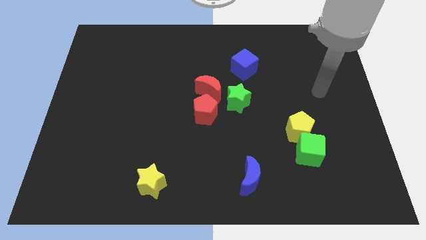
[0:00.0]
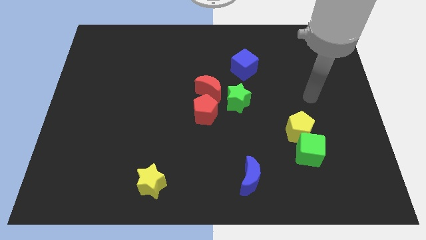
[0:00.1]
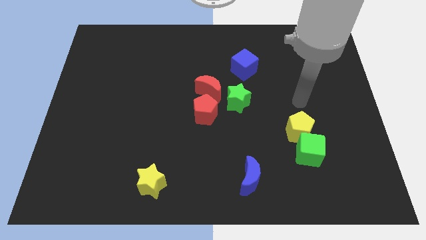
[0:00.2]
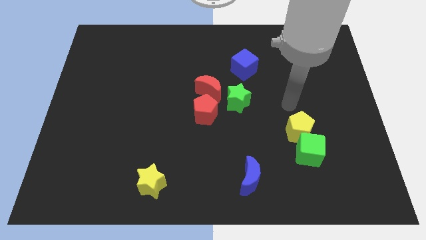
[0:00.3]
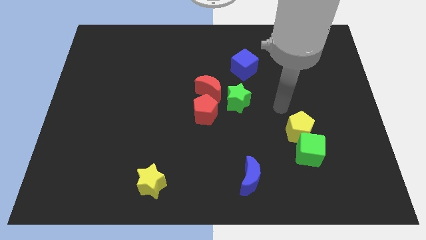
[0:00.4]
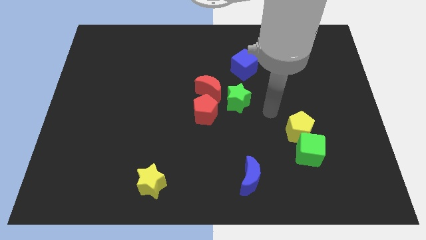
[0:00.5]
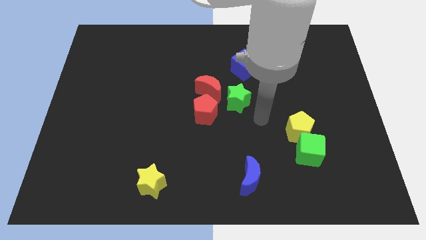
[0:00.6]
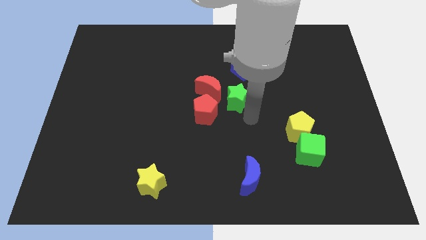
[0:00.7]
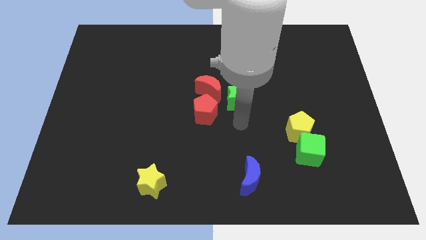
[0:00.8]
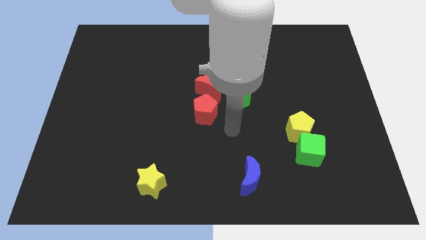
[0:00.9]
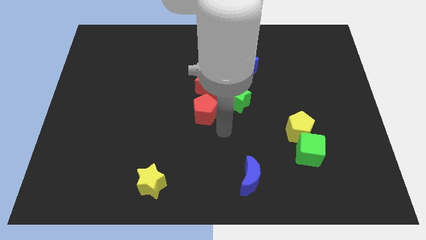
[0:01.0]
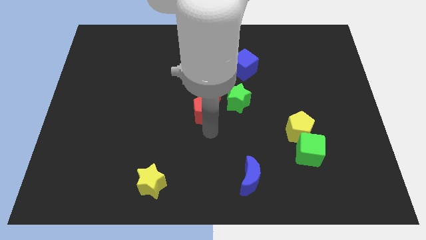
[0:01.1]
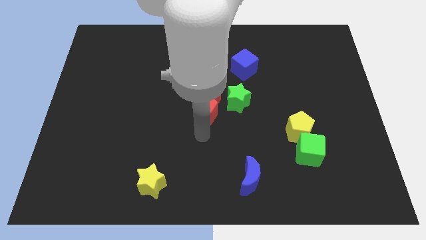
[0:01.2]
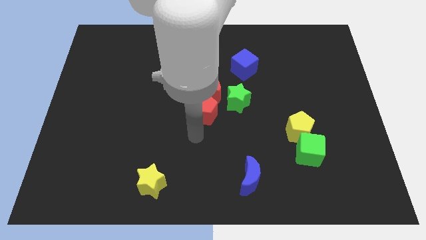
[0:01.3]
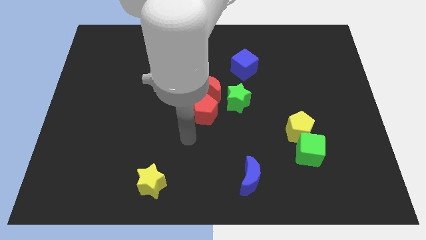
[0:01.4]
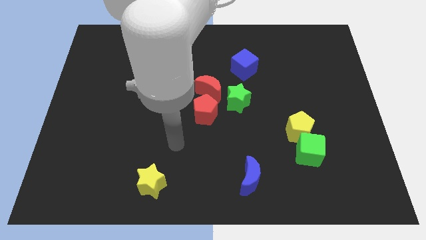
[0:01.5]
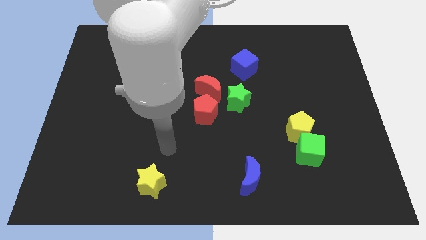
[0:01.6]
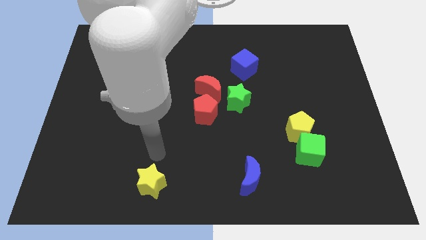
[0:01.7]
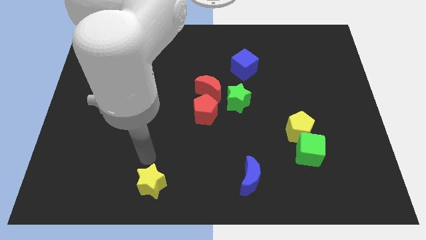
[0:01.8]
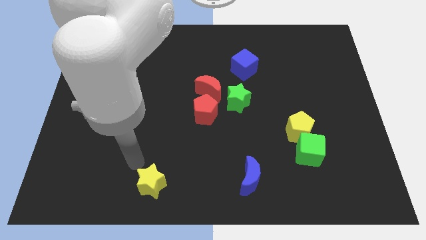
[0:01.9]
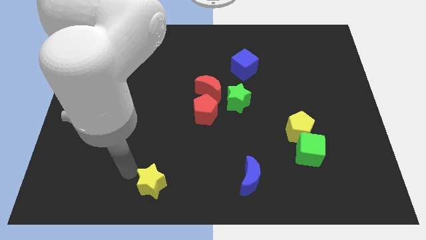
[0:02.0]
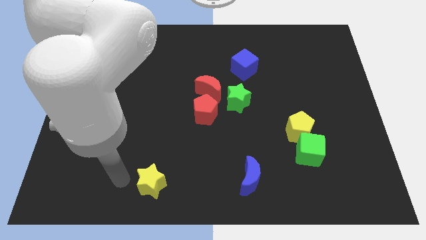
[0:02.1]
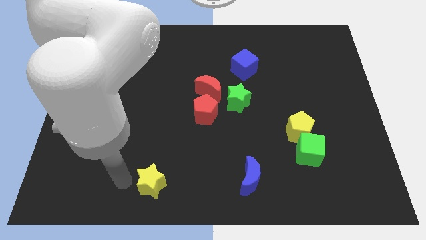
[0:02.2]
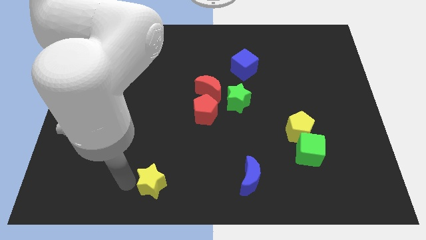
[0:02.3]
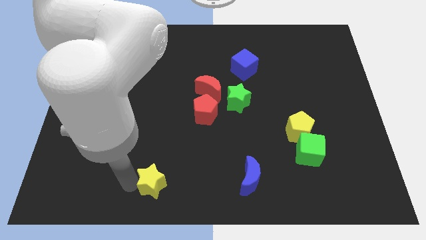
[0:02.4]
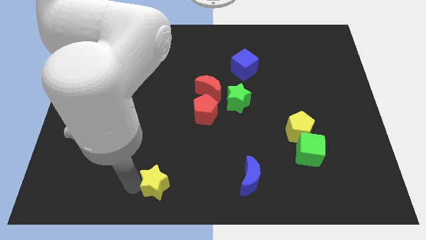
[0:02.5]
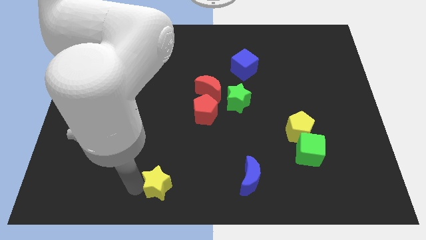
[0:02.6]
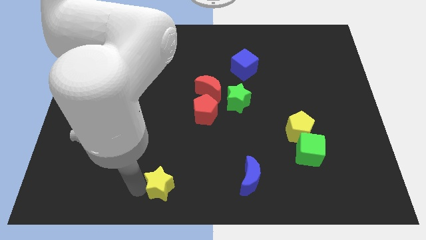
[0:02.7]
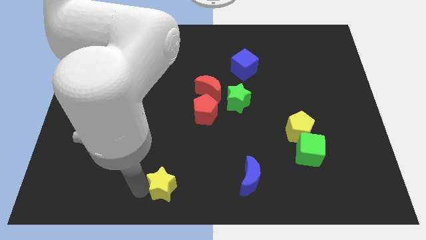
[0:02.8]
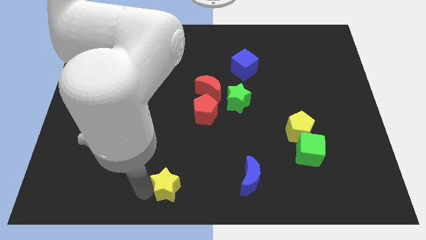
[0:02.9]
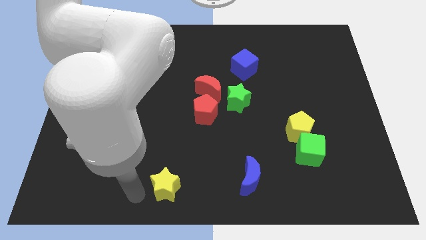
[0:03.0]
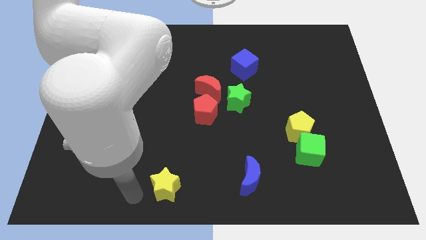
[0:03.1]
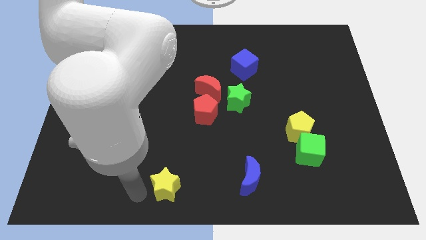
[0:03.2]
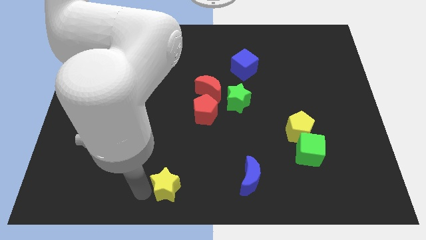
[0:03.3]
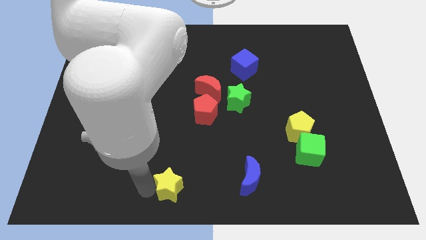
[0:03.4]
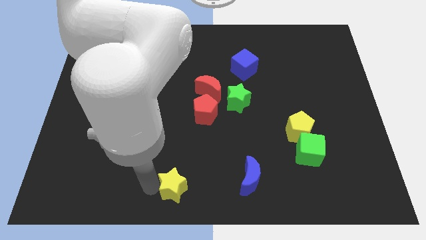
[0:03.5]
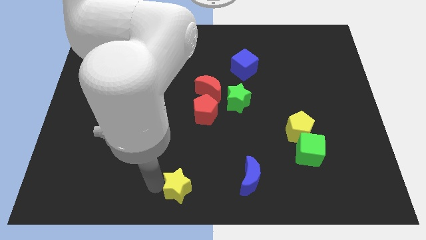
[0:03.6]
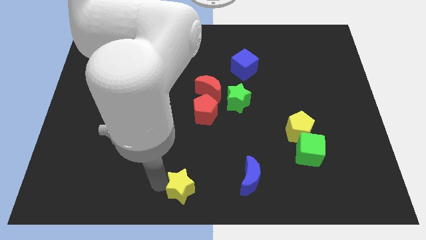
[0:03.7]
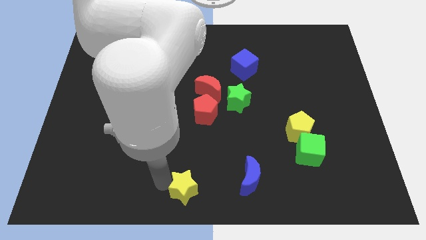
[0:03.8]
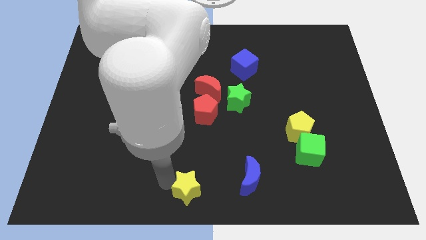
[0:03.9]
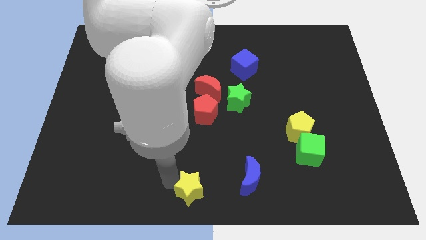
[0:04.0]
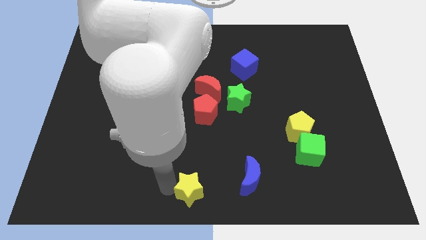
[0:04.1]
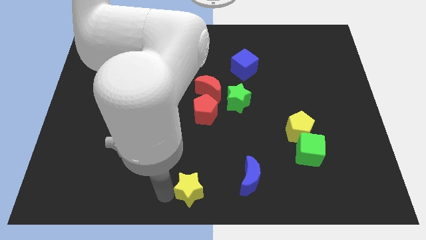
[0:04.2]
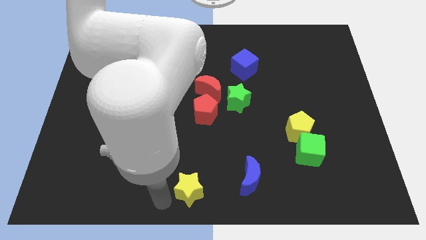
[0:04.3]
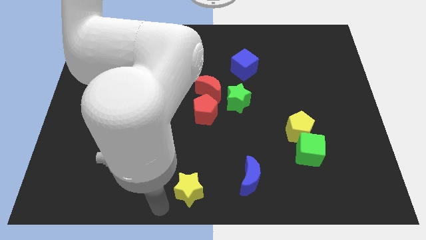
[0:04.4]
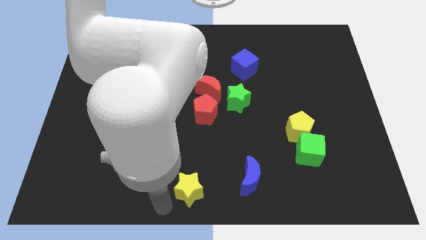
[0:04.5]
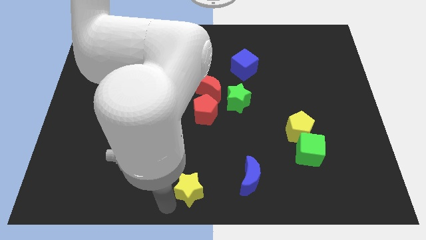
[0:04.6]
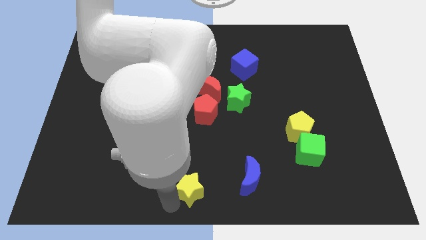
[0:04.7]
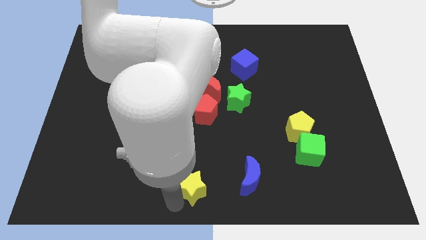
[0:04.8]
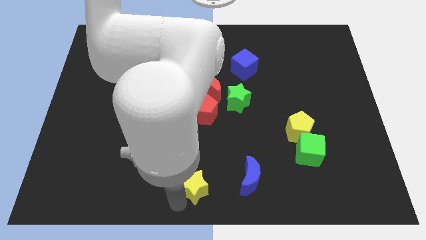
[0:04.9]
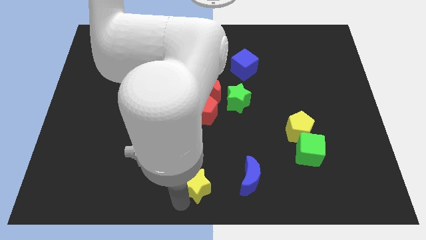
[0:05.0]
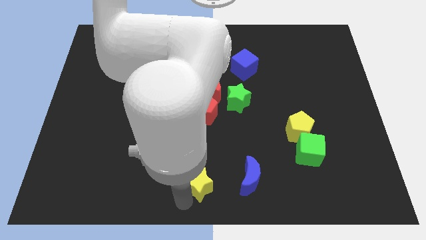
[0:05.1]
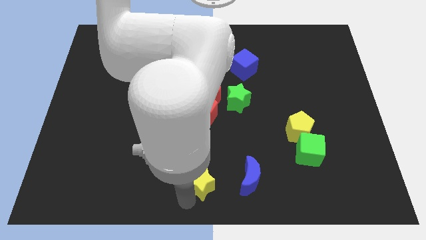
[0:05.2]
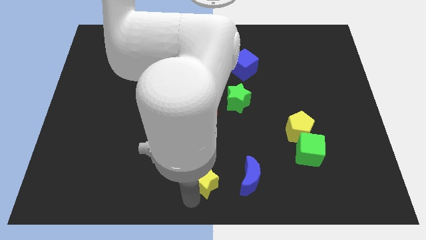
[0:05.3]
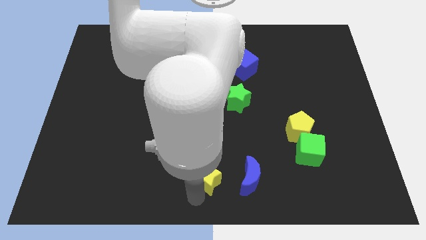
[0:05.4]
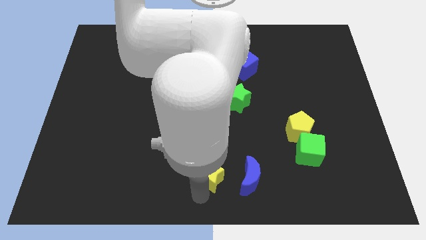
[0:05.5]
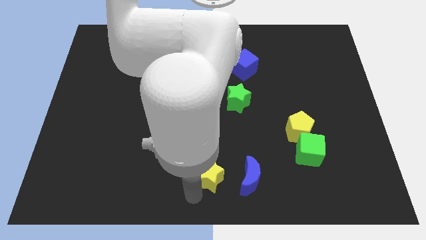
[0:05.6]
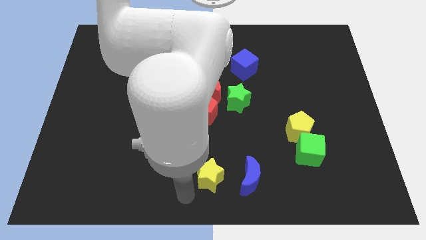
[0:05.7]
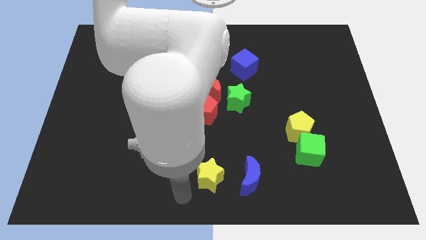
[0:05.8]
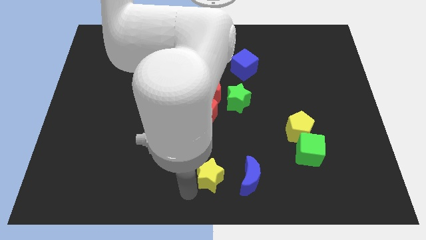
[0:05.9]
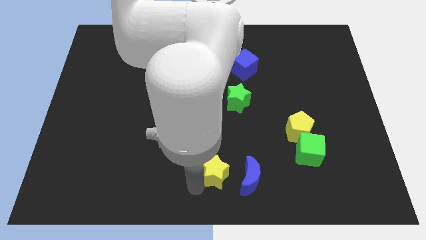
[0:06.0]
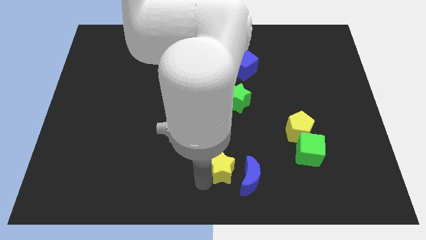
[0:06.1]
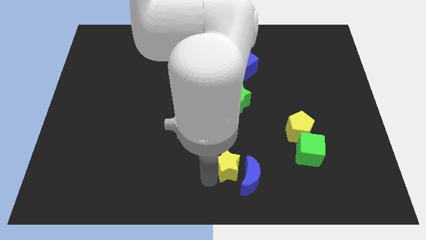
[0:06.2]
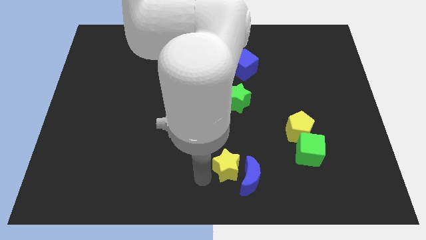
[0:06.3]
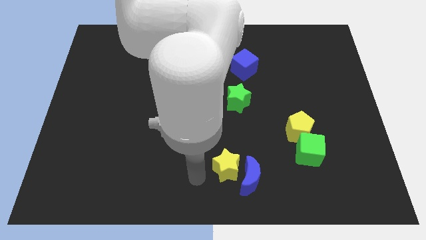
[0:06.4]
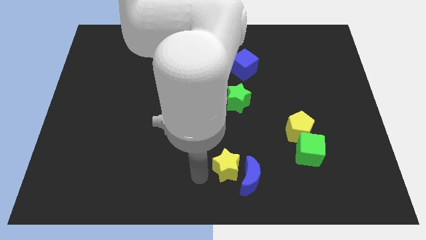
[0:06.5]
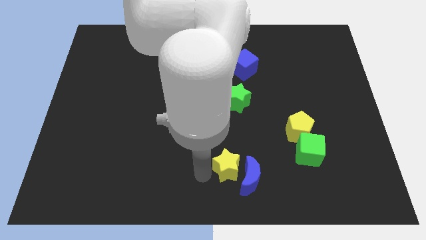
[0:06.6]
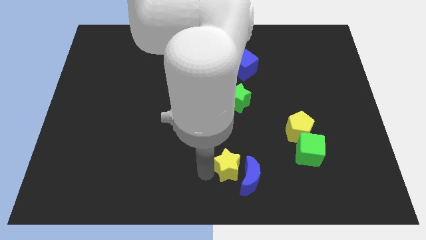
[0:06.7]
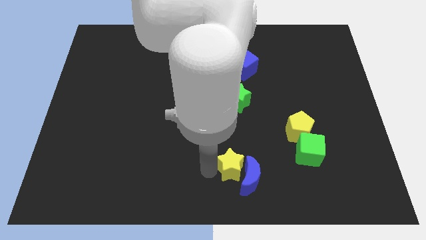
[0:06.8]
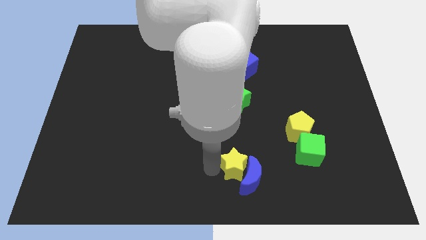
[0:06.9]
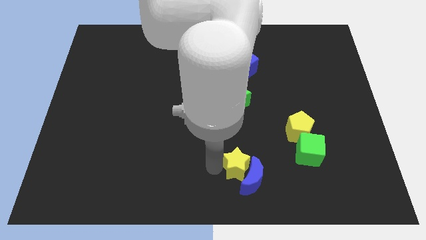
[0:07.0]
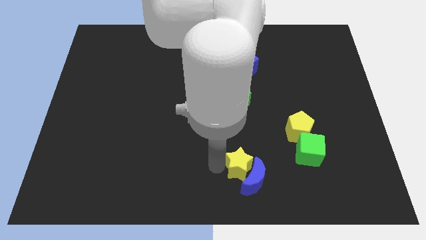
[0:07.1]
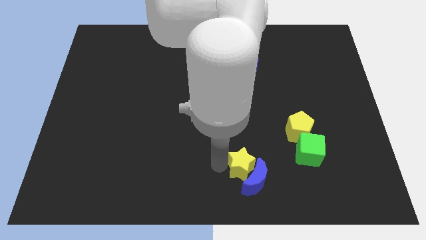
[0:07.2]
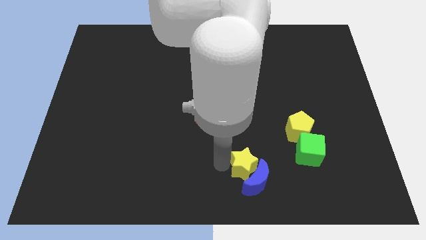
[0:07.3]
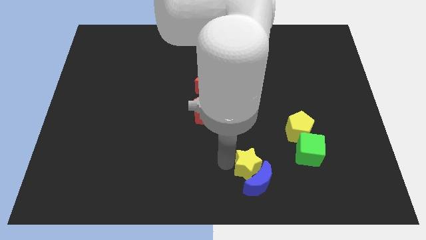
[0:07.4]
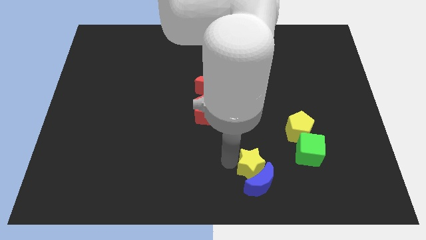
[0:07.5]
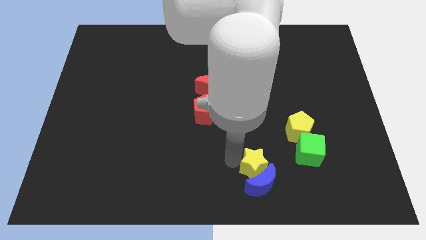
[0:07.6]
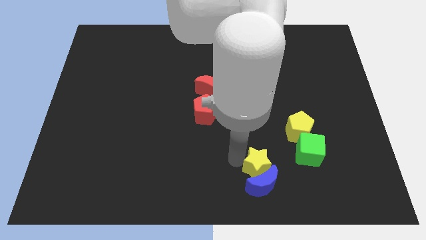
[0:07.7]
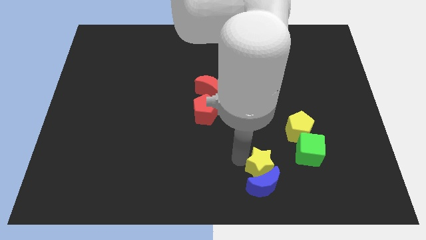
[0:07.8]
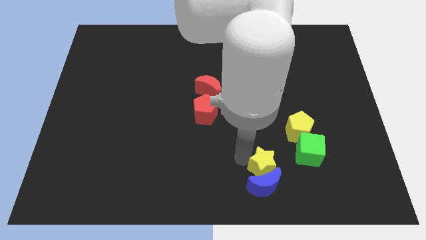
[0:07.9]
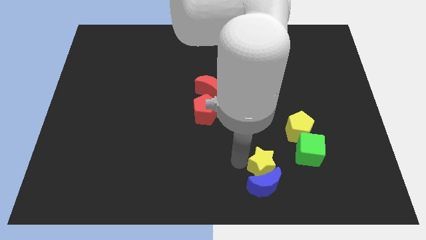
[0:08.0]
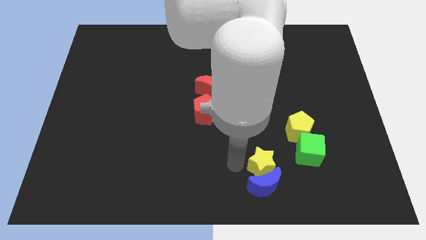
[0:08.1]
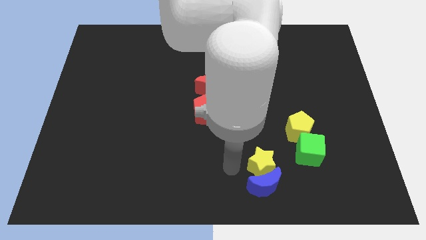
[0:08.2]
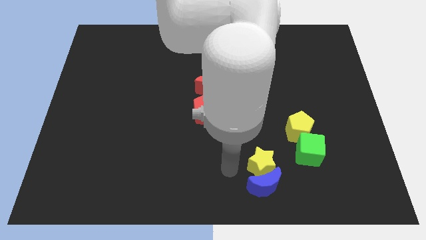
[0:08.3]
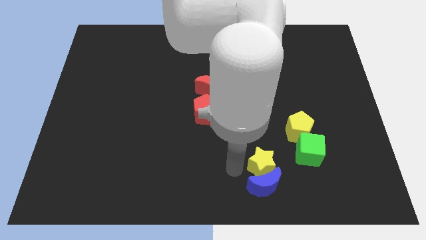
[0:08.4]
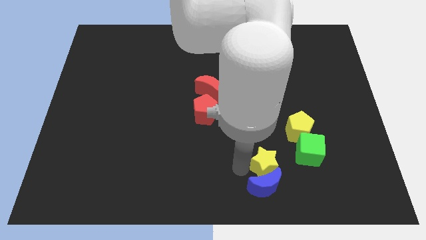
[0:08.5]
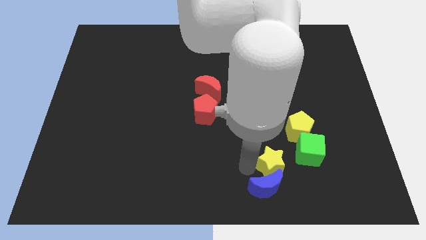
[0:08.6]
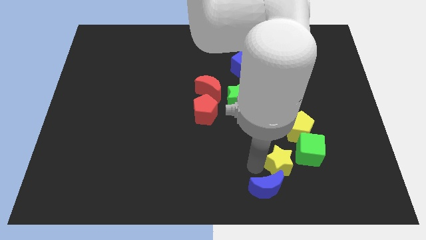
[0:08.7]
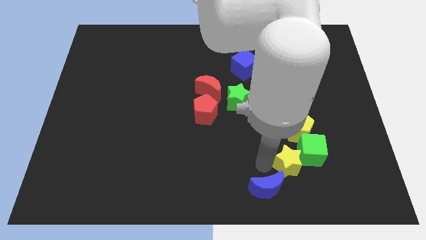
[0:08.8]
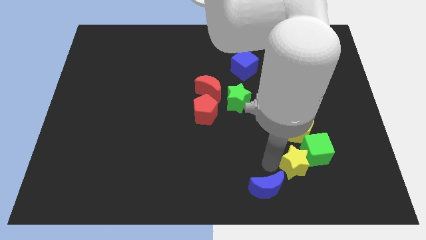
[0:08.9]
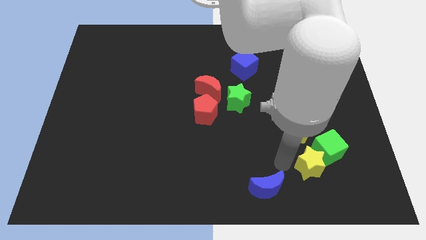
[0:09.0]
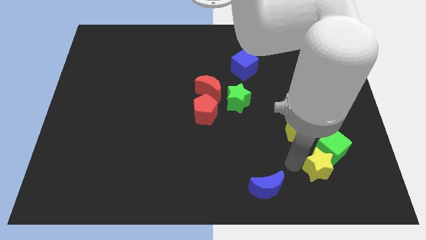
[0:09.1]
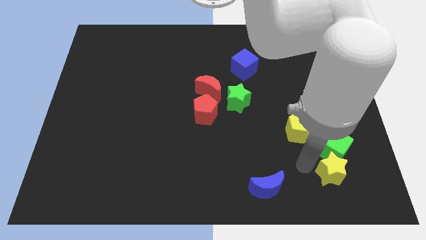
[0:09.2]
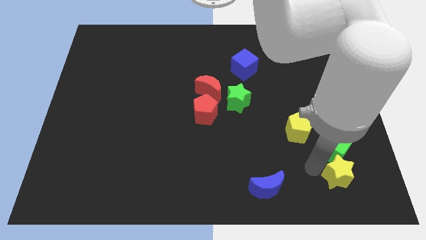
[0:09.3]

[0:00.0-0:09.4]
push the yellow star to the bottom right of the green cube
